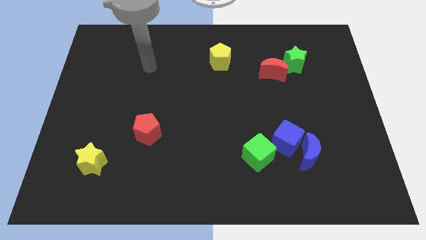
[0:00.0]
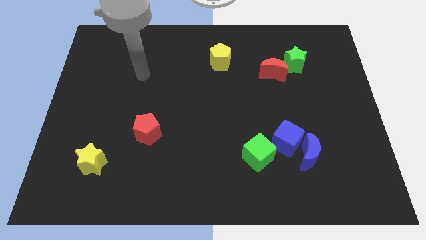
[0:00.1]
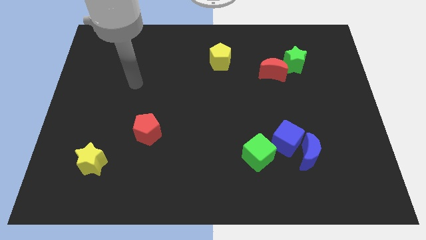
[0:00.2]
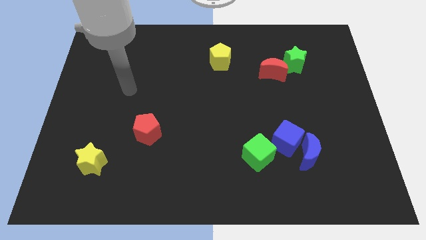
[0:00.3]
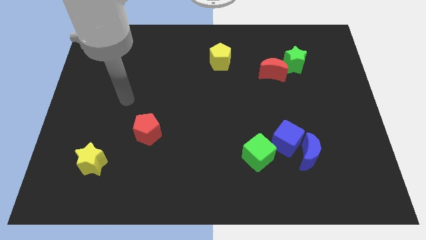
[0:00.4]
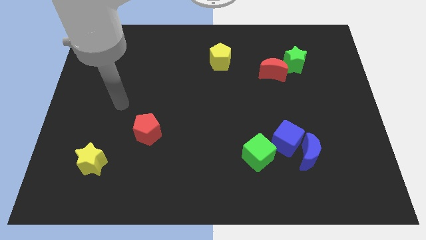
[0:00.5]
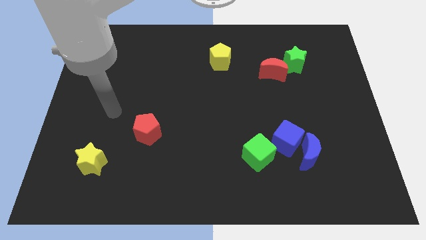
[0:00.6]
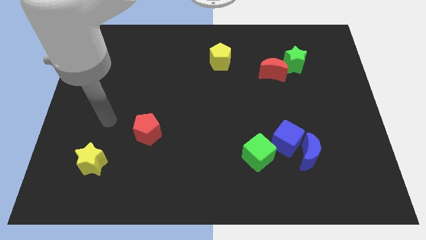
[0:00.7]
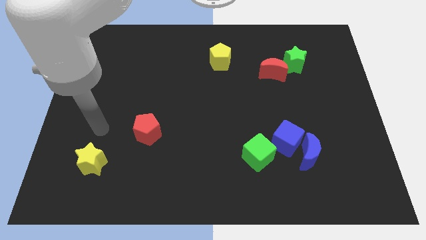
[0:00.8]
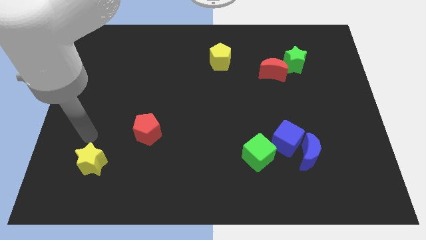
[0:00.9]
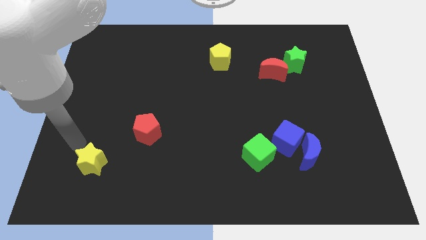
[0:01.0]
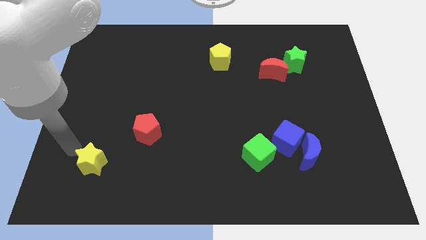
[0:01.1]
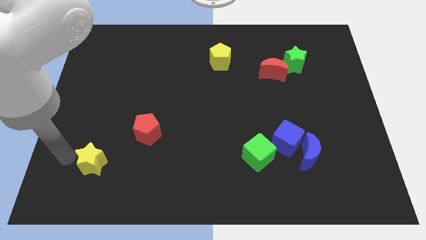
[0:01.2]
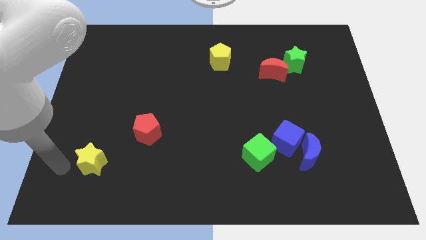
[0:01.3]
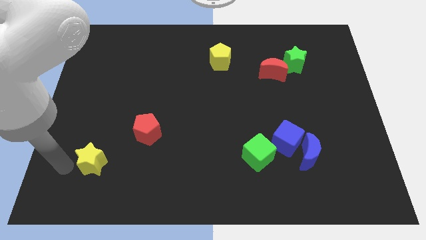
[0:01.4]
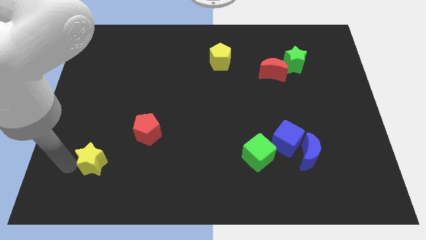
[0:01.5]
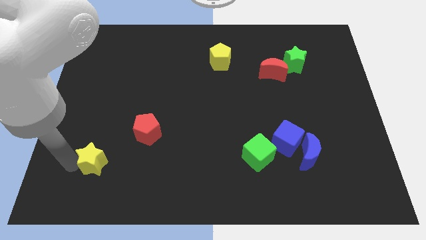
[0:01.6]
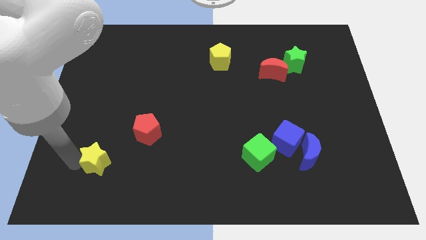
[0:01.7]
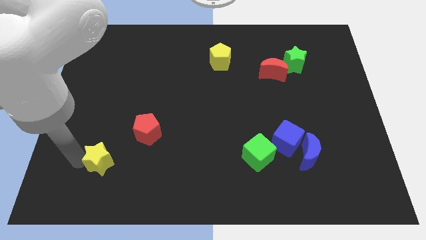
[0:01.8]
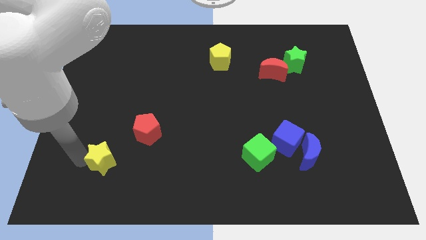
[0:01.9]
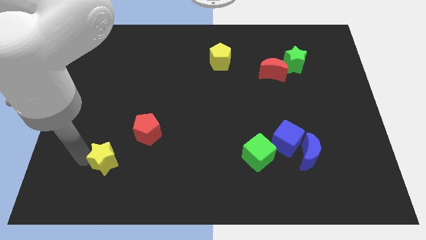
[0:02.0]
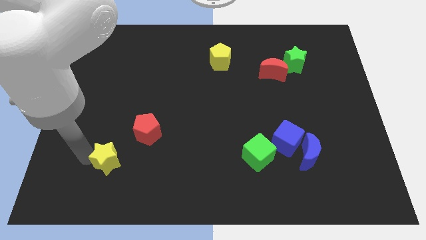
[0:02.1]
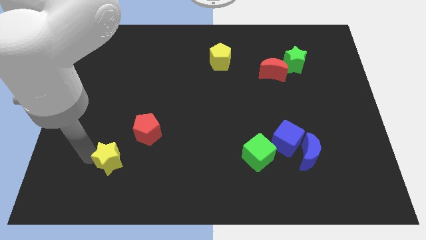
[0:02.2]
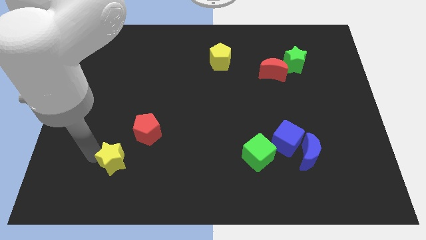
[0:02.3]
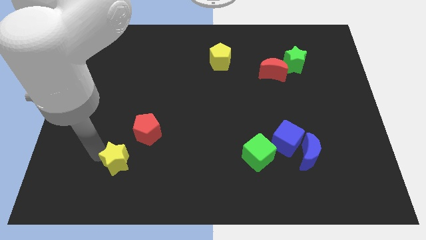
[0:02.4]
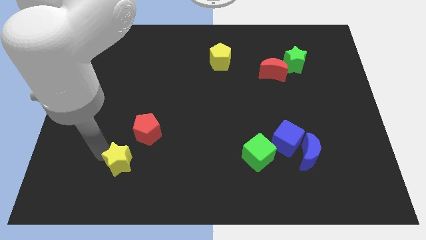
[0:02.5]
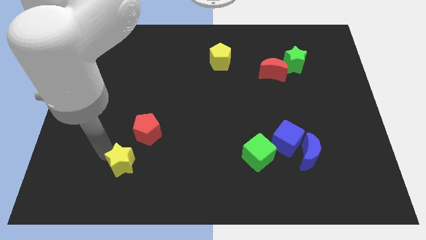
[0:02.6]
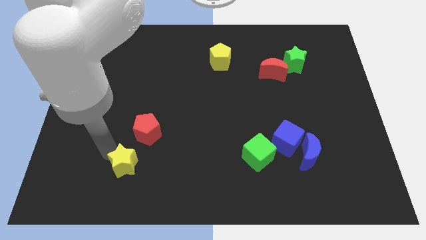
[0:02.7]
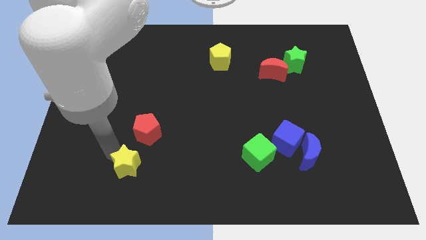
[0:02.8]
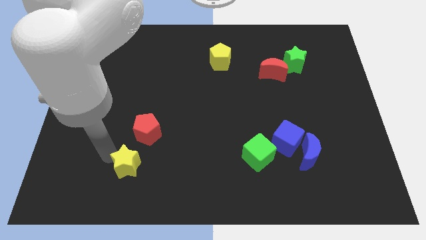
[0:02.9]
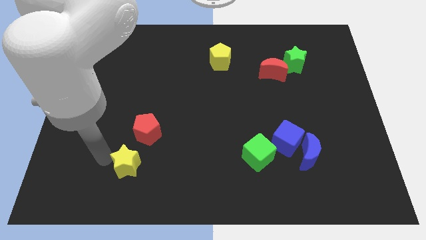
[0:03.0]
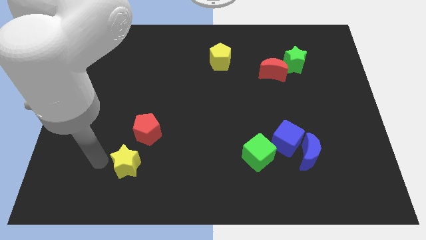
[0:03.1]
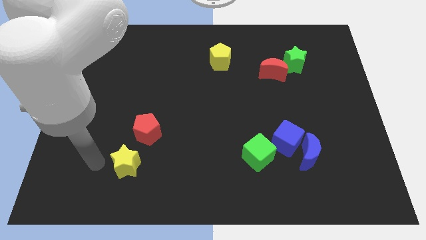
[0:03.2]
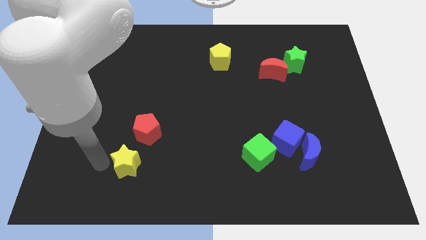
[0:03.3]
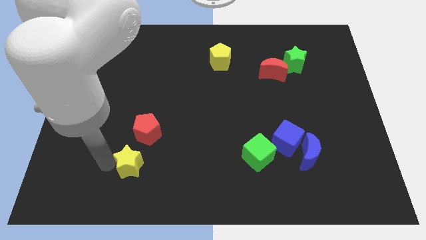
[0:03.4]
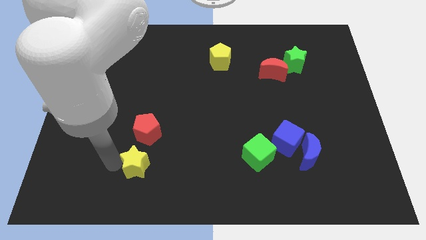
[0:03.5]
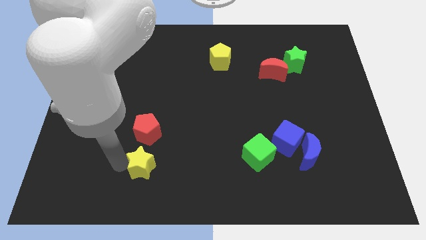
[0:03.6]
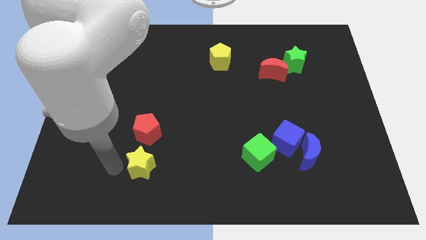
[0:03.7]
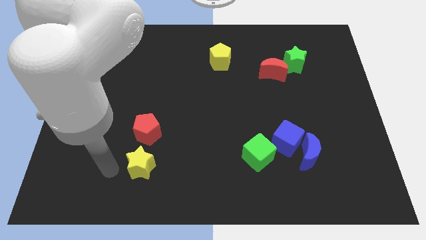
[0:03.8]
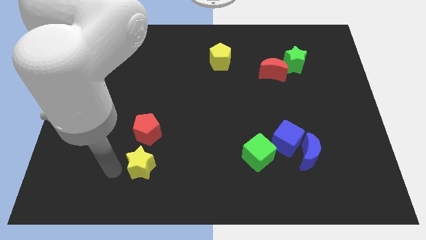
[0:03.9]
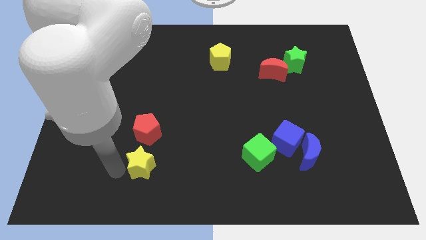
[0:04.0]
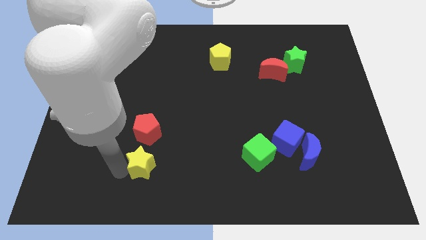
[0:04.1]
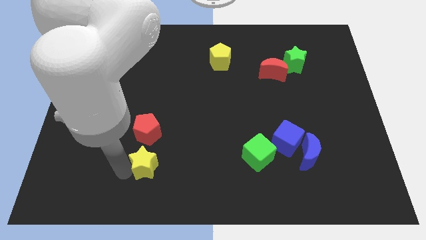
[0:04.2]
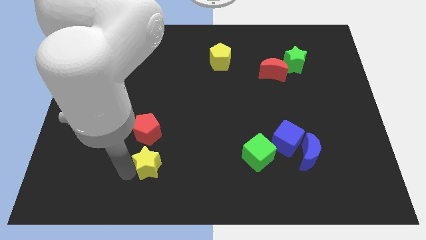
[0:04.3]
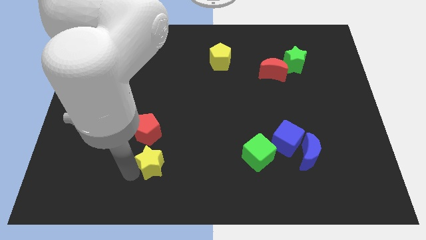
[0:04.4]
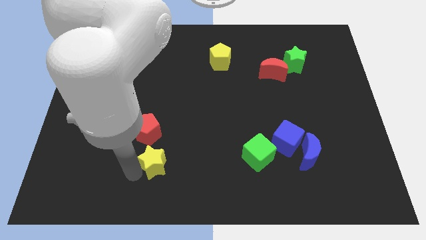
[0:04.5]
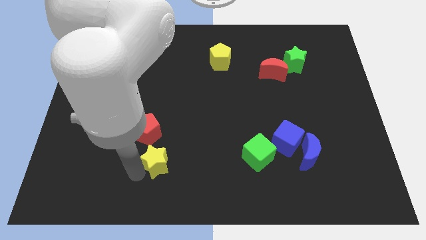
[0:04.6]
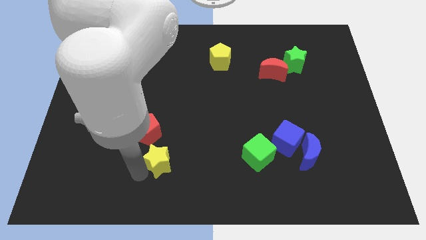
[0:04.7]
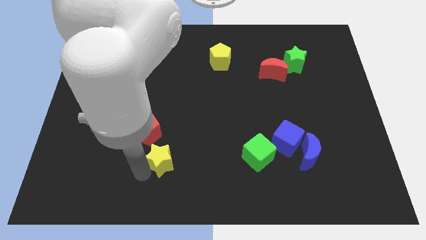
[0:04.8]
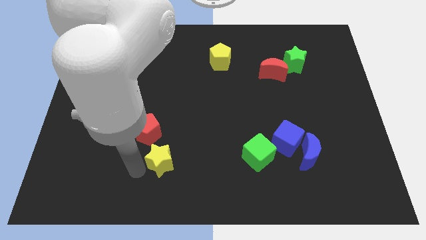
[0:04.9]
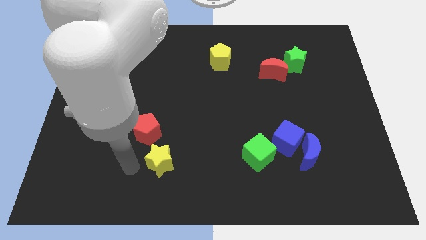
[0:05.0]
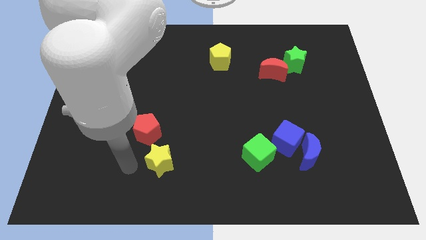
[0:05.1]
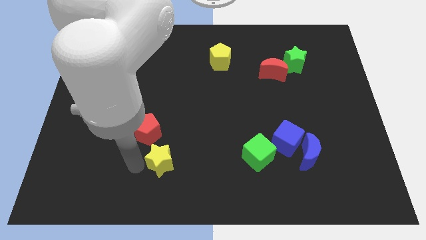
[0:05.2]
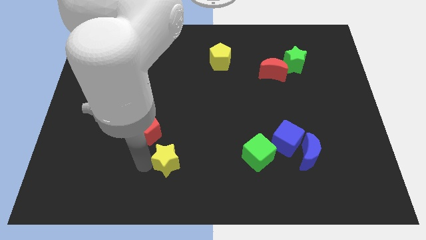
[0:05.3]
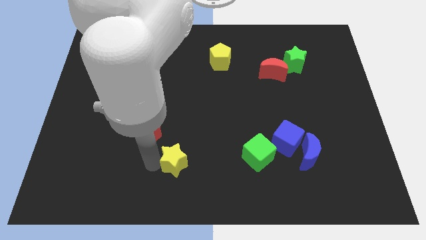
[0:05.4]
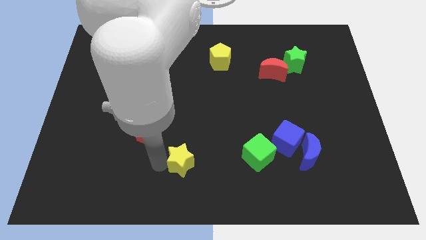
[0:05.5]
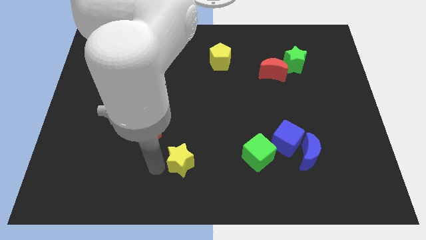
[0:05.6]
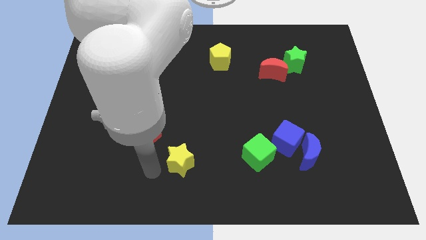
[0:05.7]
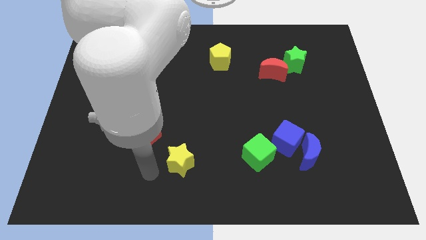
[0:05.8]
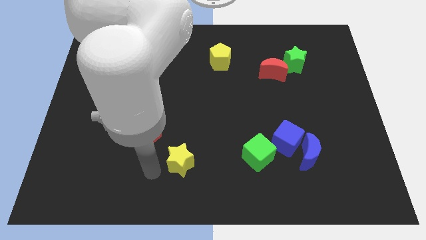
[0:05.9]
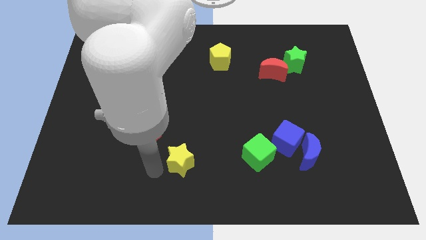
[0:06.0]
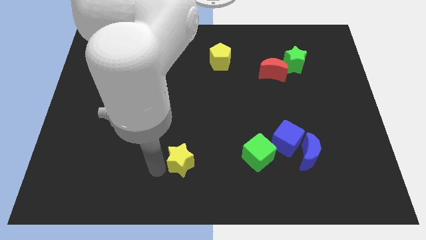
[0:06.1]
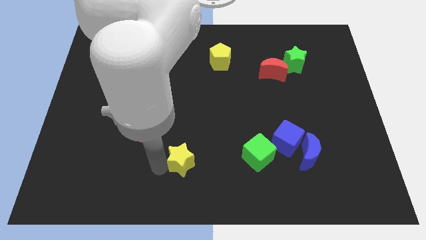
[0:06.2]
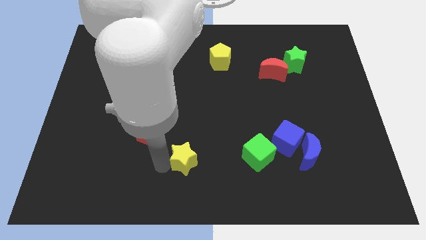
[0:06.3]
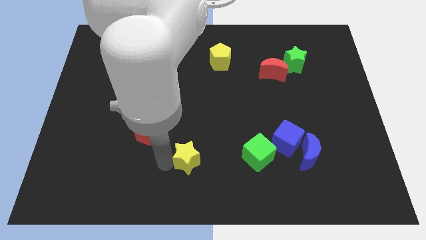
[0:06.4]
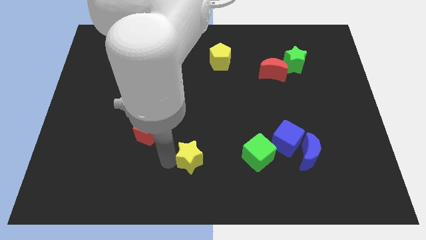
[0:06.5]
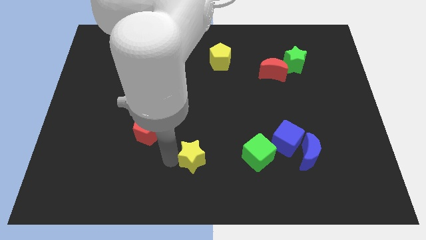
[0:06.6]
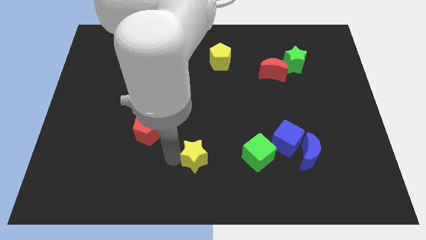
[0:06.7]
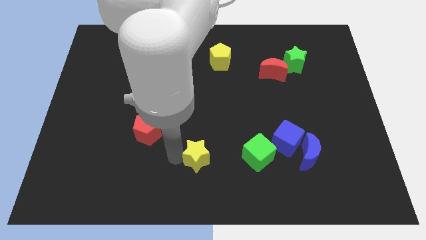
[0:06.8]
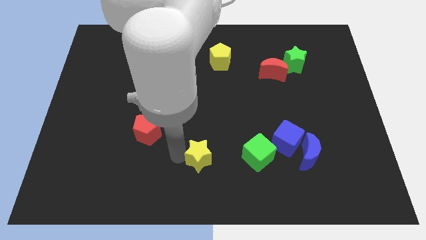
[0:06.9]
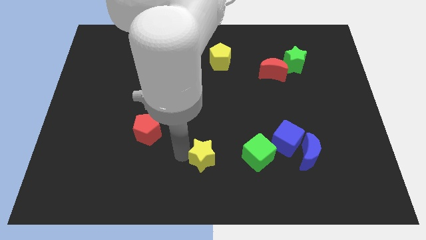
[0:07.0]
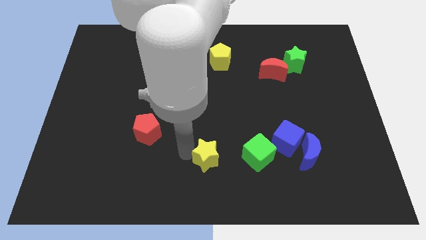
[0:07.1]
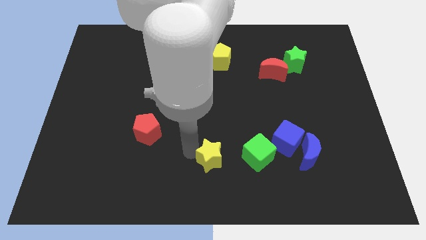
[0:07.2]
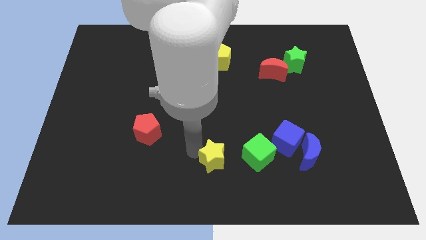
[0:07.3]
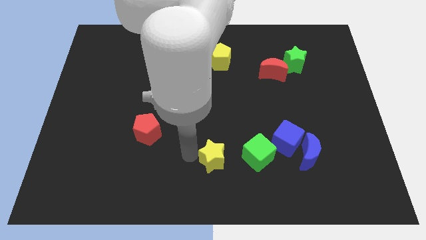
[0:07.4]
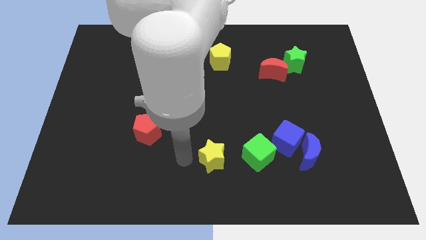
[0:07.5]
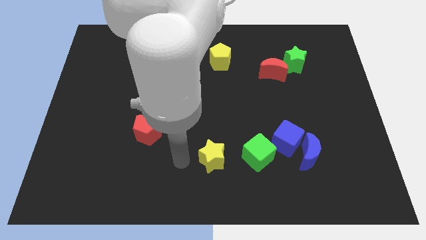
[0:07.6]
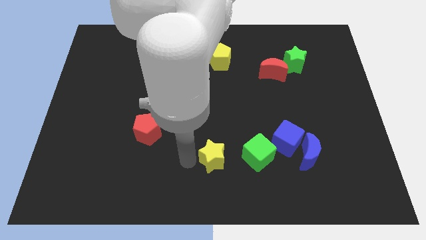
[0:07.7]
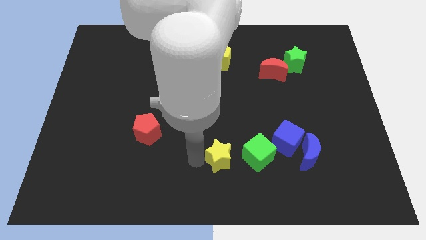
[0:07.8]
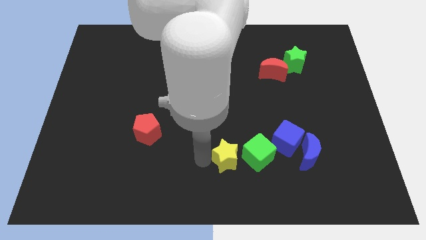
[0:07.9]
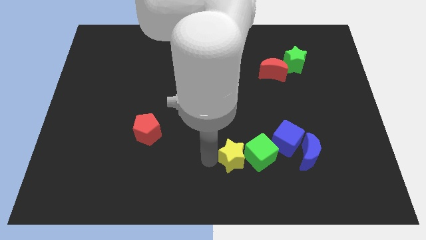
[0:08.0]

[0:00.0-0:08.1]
move the yellow star close to the green cube
